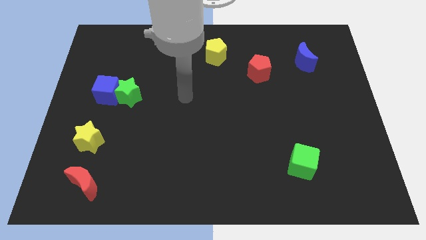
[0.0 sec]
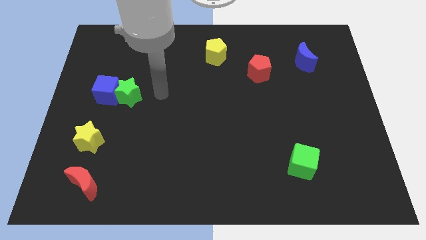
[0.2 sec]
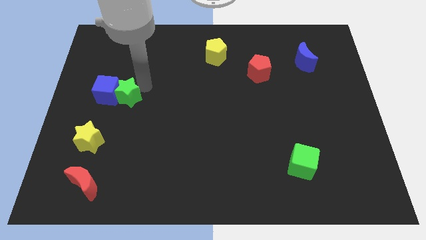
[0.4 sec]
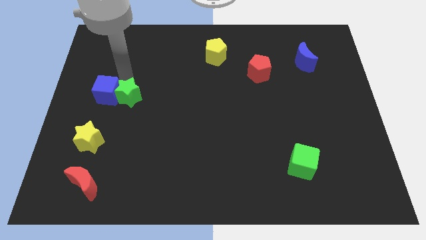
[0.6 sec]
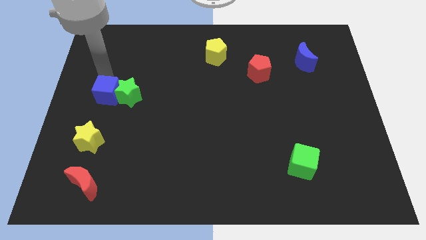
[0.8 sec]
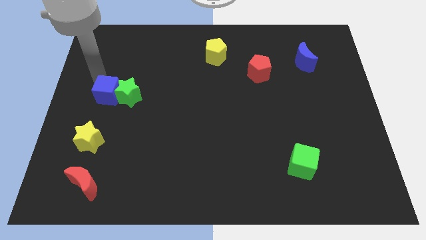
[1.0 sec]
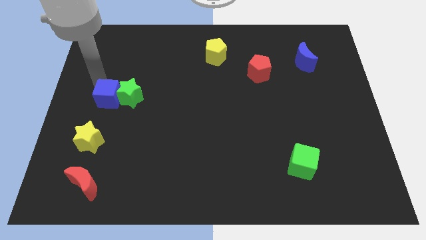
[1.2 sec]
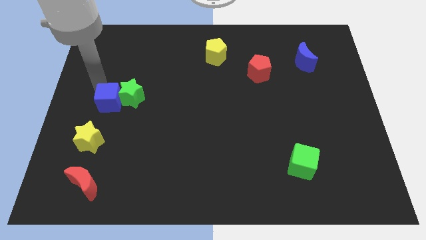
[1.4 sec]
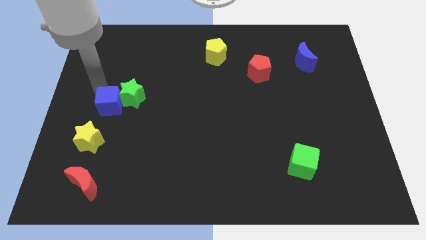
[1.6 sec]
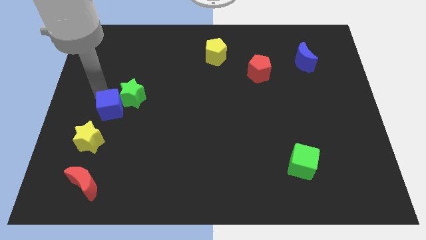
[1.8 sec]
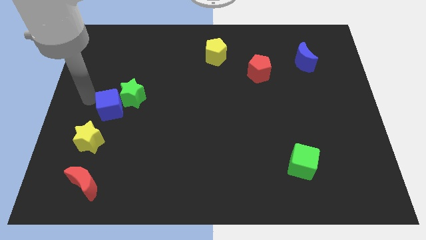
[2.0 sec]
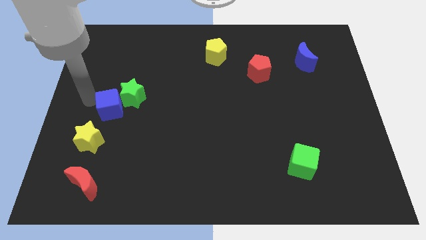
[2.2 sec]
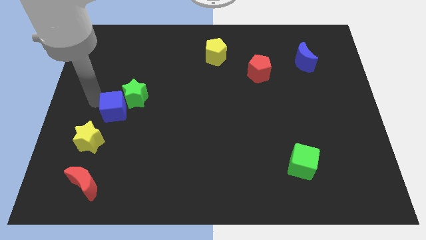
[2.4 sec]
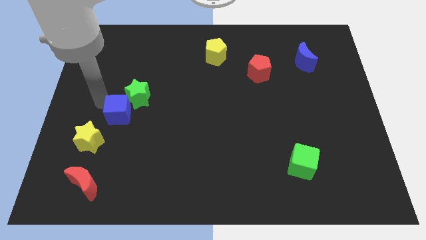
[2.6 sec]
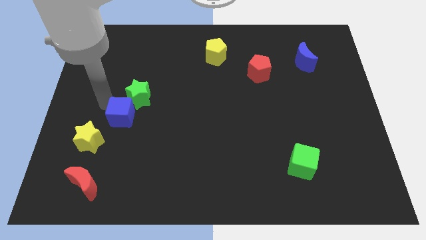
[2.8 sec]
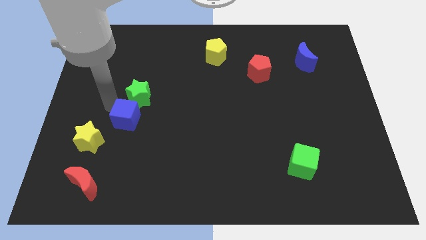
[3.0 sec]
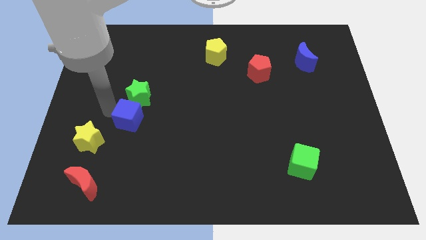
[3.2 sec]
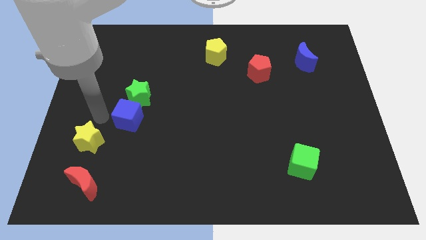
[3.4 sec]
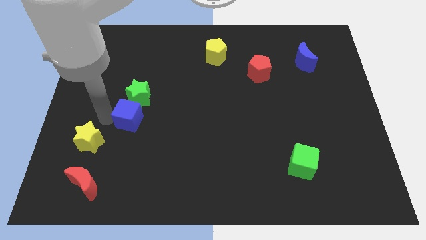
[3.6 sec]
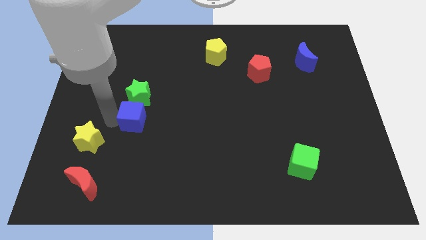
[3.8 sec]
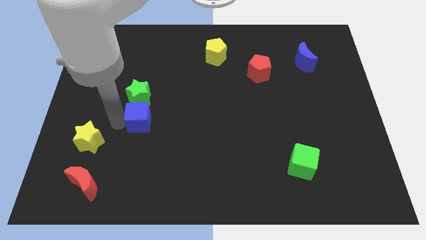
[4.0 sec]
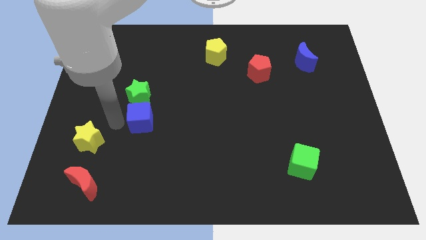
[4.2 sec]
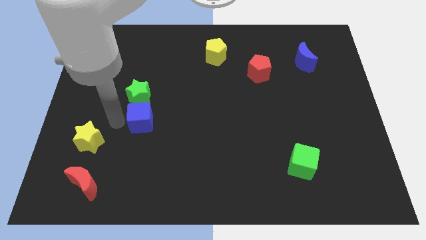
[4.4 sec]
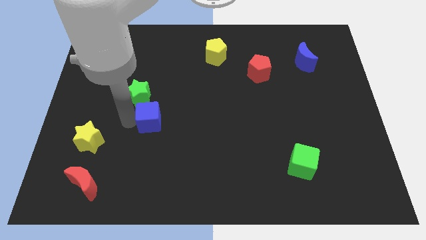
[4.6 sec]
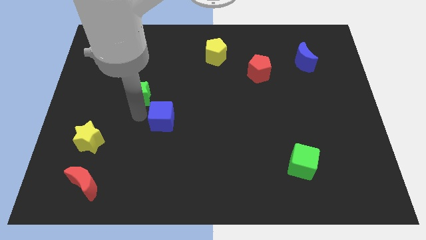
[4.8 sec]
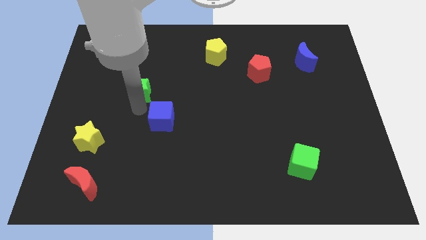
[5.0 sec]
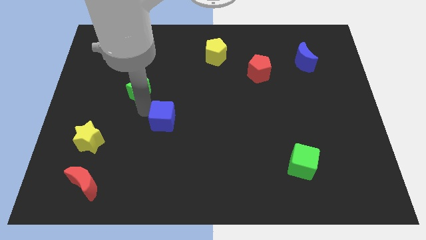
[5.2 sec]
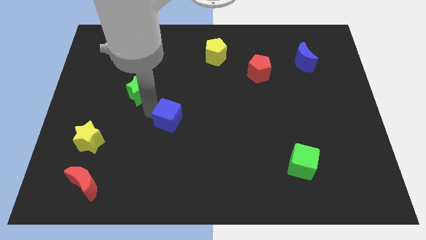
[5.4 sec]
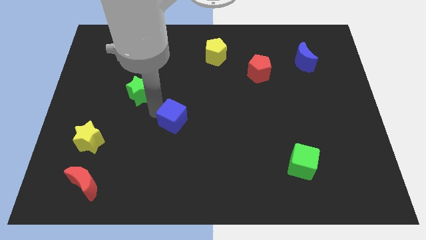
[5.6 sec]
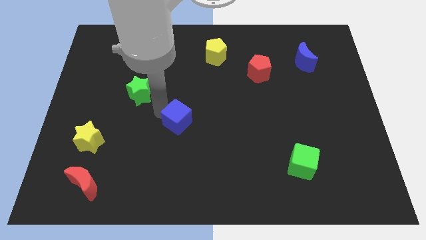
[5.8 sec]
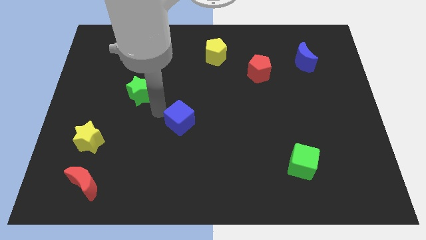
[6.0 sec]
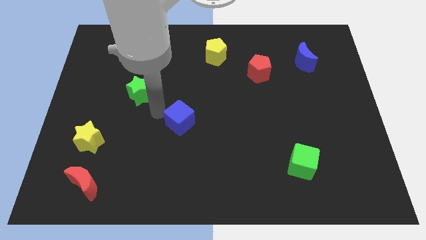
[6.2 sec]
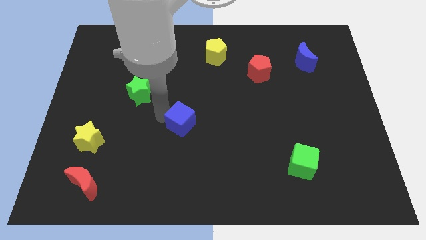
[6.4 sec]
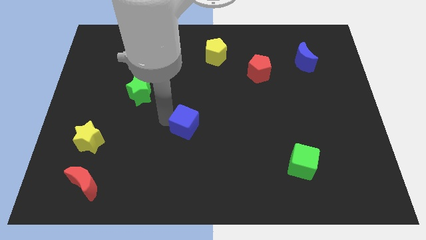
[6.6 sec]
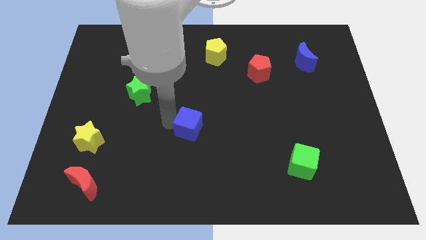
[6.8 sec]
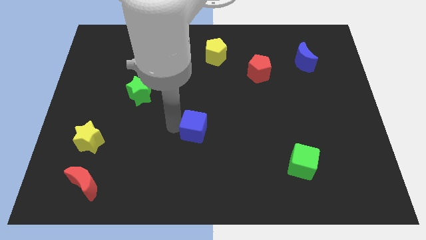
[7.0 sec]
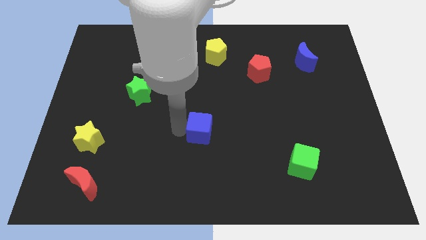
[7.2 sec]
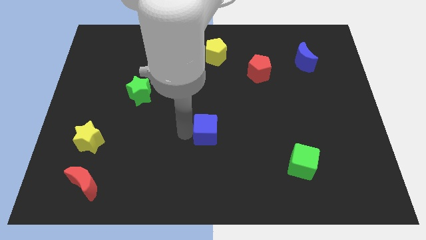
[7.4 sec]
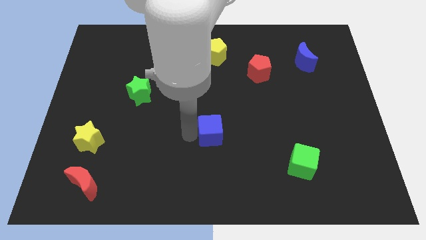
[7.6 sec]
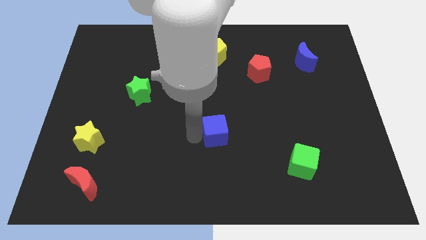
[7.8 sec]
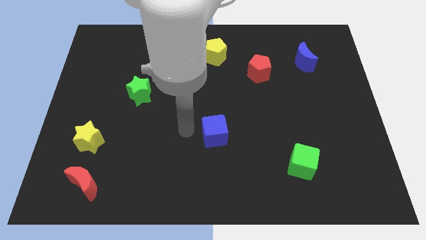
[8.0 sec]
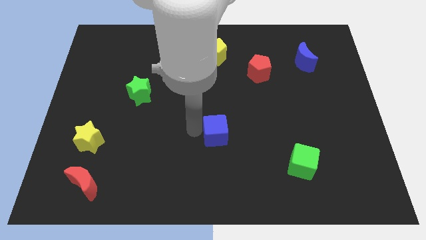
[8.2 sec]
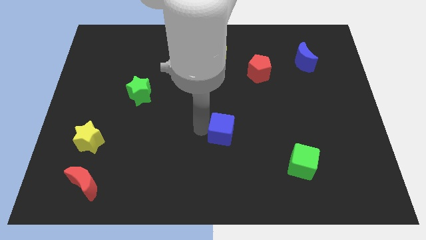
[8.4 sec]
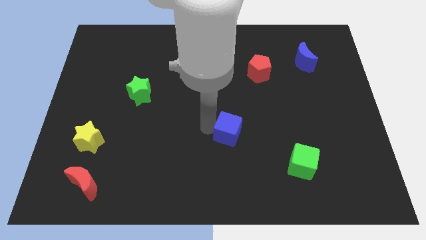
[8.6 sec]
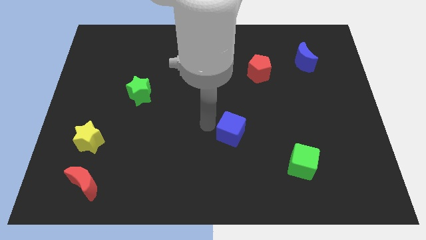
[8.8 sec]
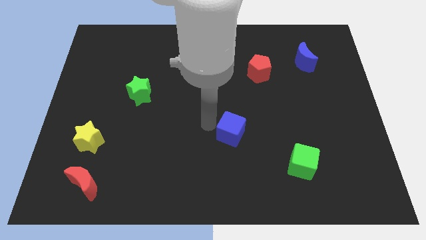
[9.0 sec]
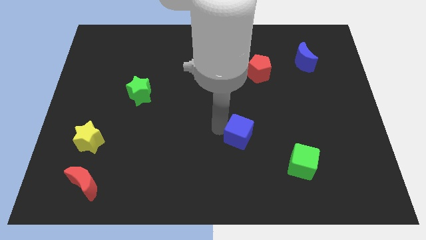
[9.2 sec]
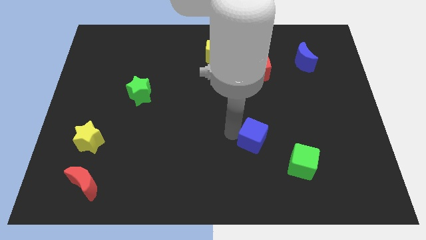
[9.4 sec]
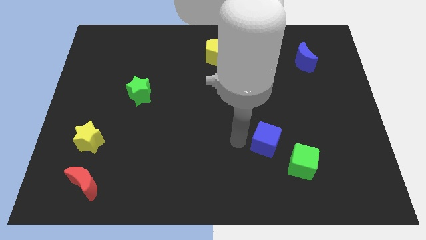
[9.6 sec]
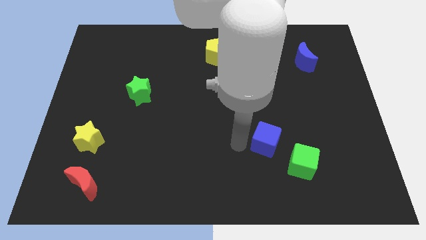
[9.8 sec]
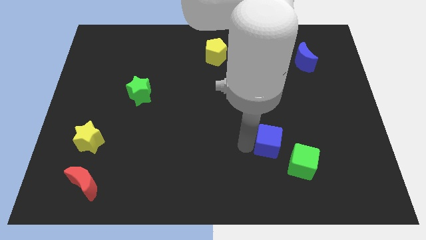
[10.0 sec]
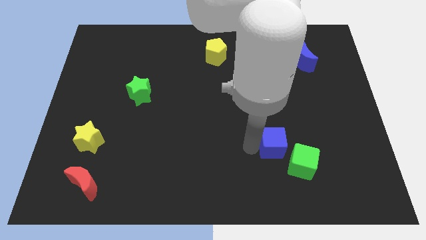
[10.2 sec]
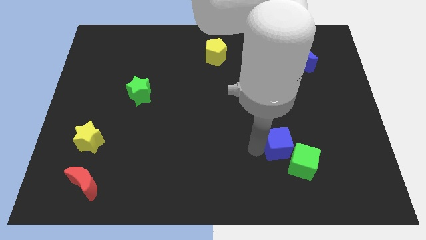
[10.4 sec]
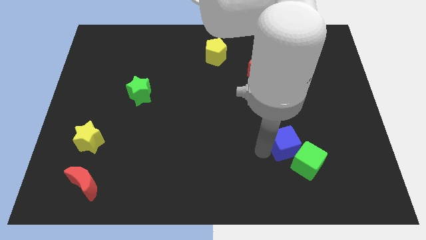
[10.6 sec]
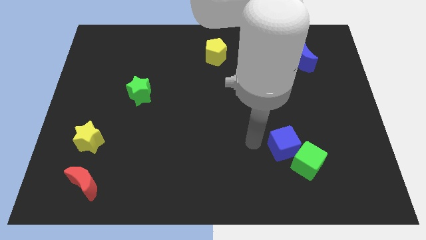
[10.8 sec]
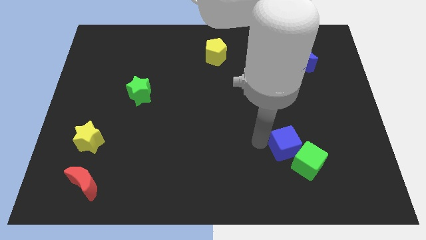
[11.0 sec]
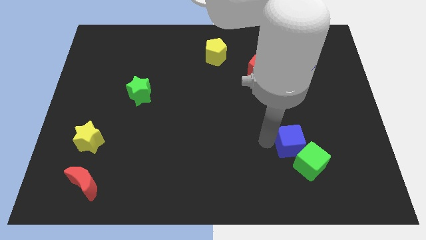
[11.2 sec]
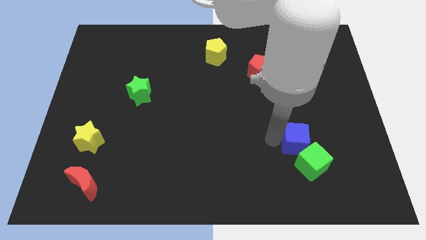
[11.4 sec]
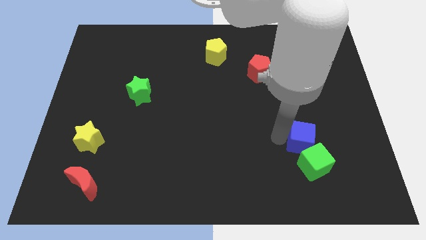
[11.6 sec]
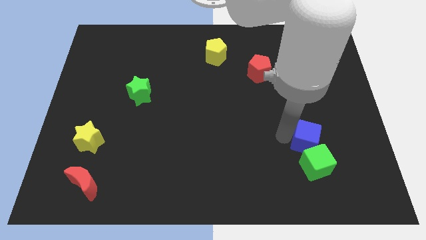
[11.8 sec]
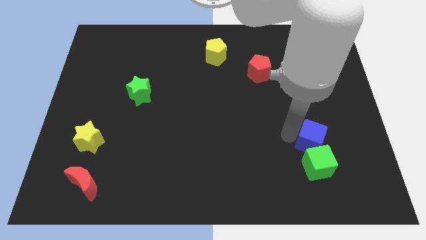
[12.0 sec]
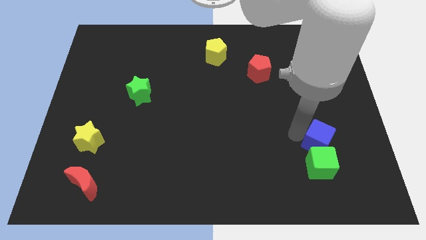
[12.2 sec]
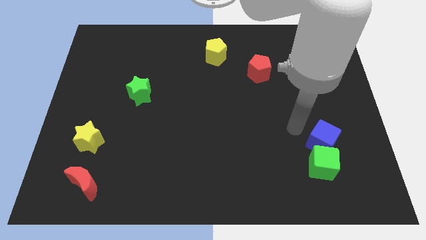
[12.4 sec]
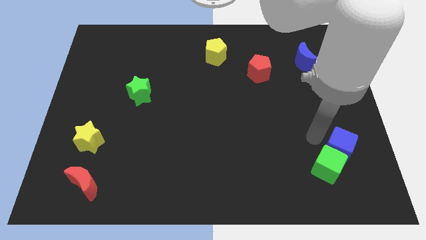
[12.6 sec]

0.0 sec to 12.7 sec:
move the blue cube just right of the green cube

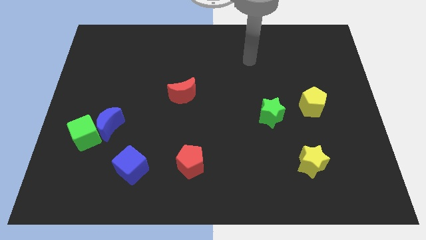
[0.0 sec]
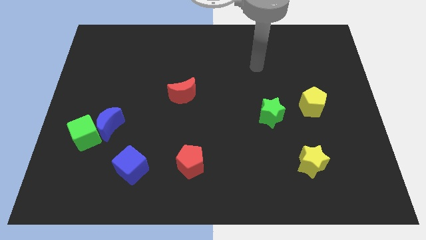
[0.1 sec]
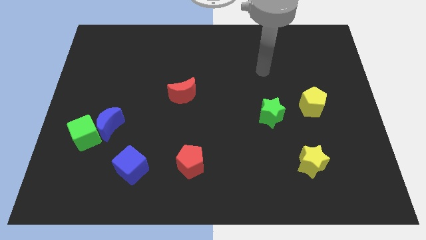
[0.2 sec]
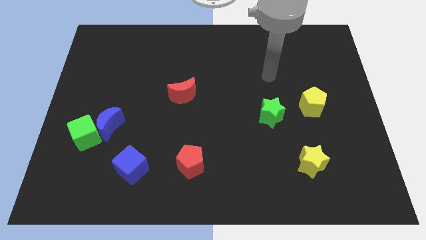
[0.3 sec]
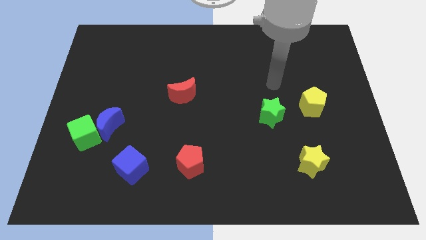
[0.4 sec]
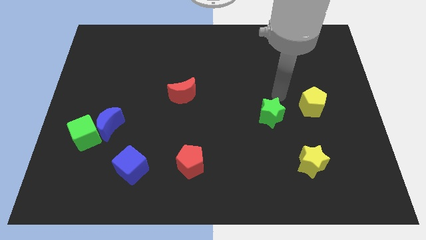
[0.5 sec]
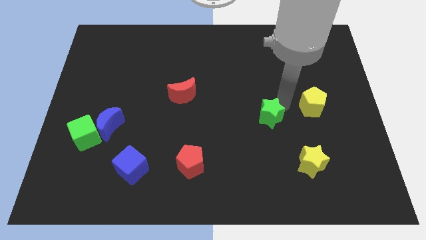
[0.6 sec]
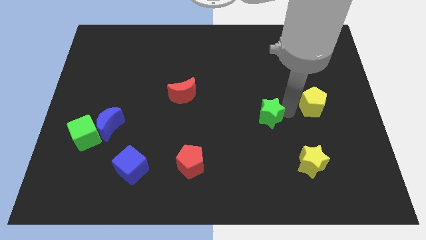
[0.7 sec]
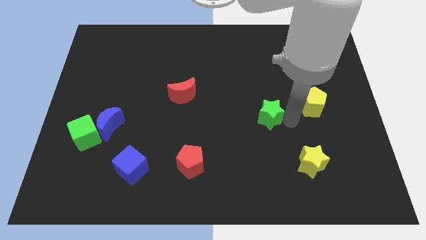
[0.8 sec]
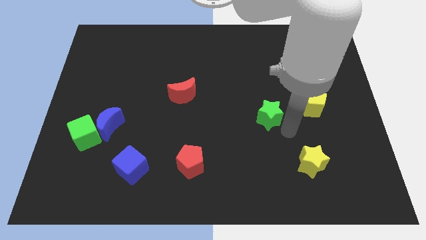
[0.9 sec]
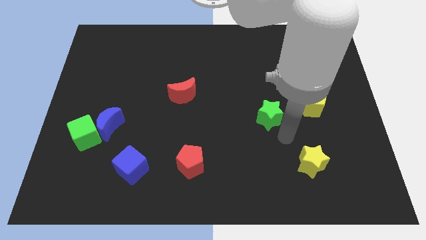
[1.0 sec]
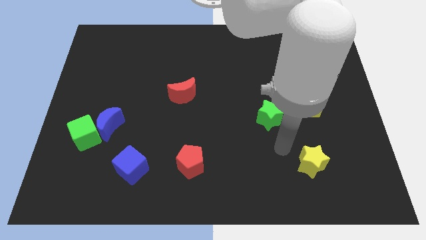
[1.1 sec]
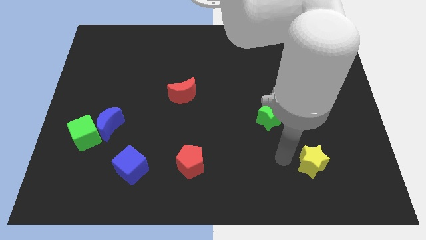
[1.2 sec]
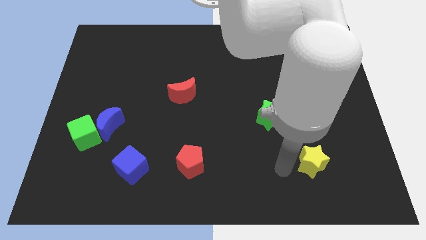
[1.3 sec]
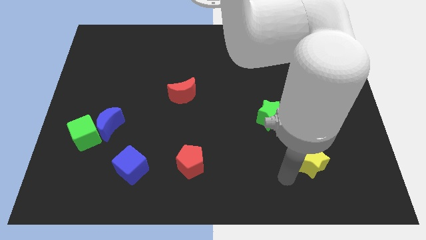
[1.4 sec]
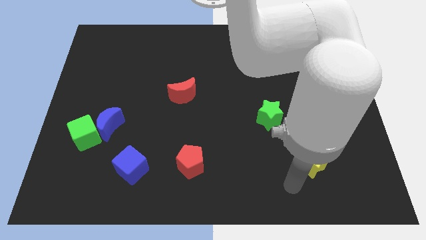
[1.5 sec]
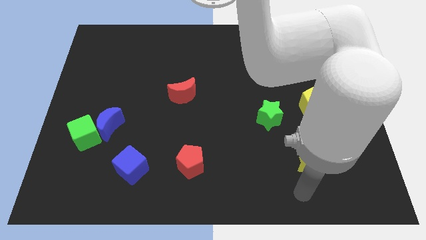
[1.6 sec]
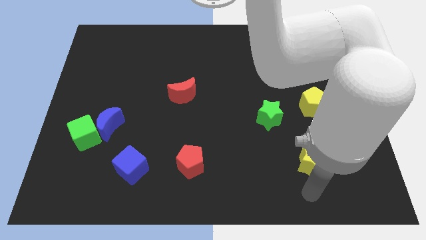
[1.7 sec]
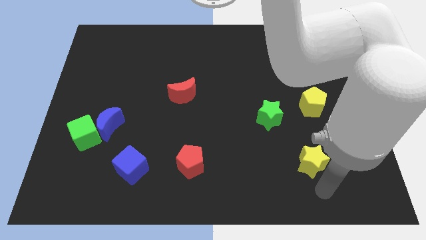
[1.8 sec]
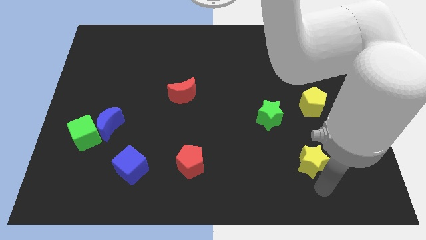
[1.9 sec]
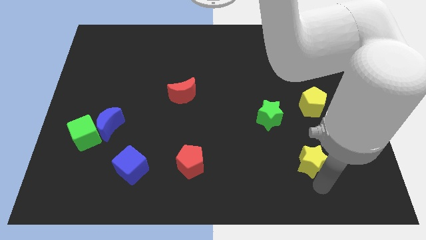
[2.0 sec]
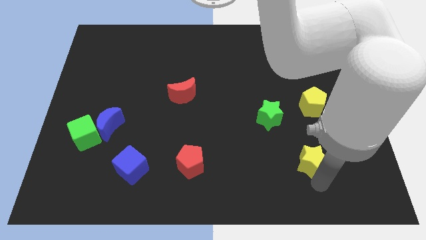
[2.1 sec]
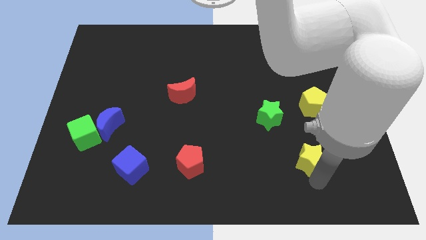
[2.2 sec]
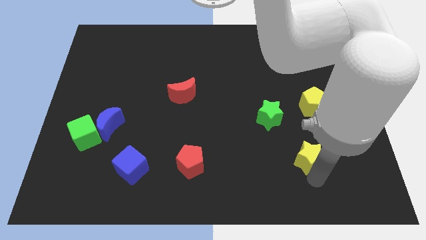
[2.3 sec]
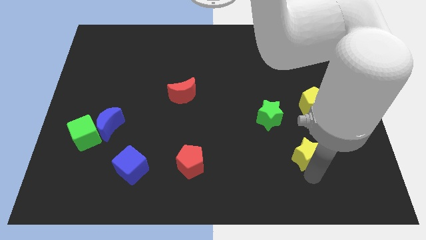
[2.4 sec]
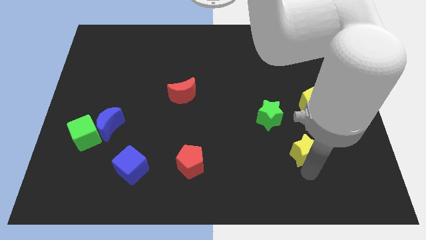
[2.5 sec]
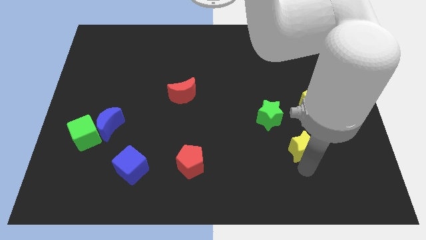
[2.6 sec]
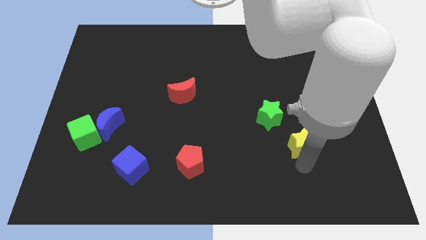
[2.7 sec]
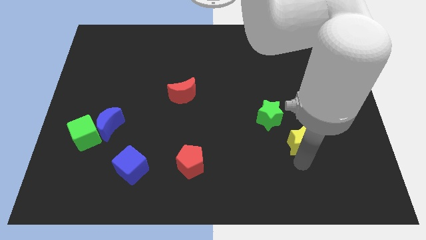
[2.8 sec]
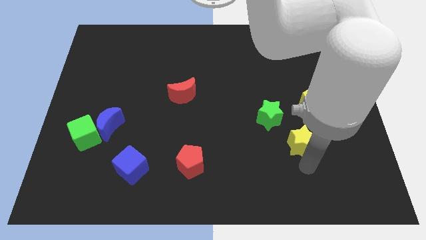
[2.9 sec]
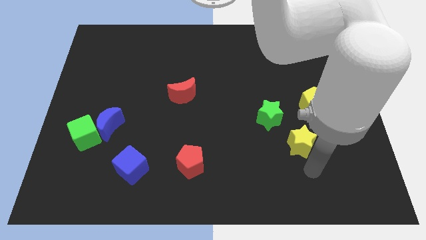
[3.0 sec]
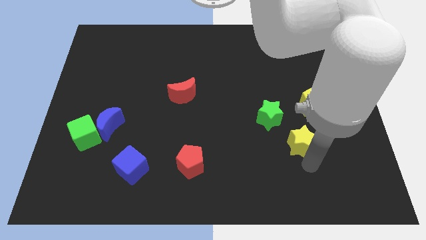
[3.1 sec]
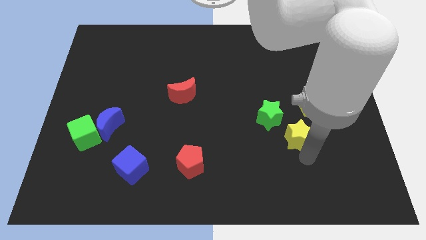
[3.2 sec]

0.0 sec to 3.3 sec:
move the yellow star to the bottom left side of the yellow pentagon
